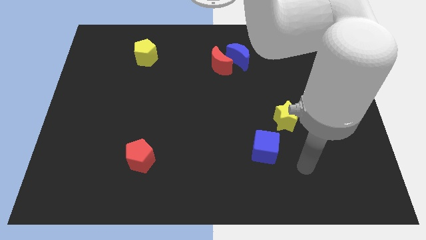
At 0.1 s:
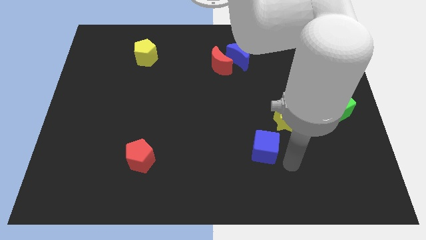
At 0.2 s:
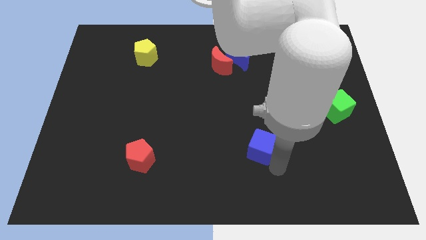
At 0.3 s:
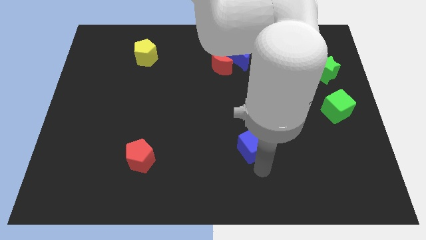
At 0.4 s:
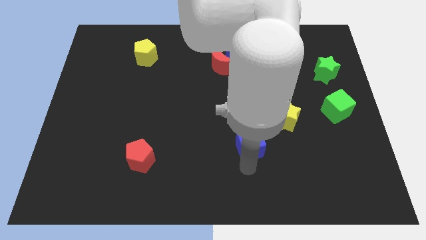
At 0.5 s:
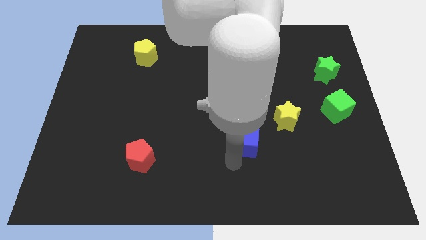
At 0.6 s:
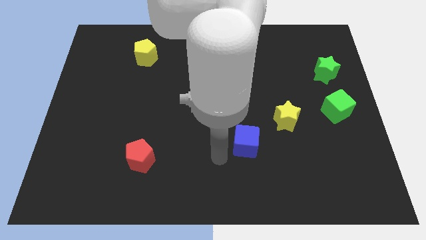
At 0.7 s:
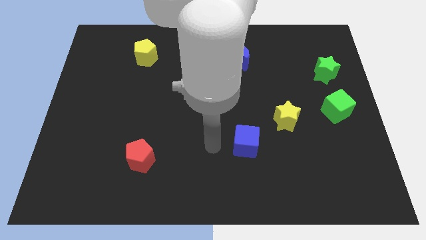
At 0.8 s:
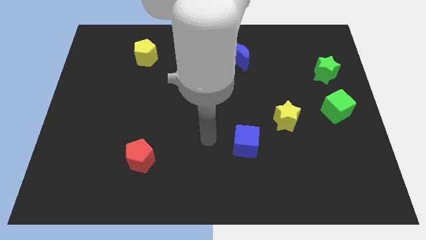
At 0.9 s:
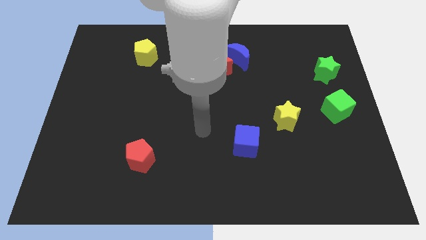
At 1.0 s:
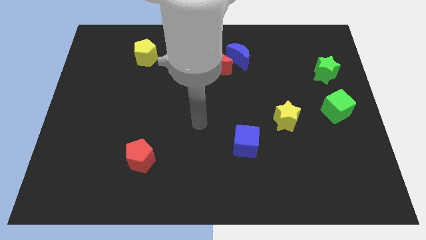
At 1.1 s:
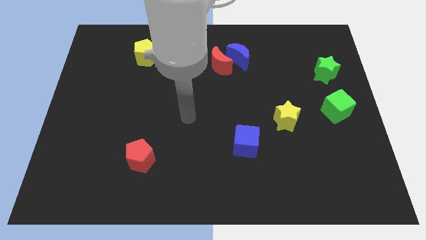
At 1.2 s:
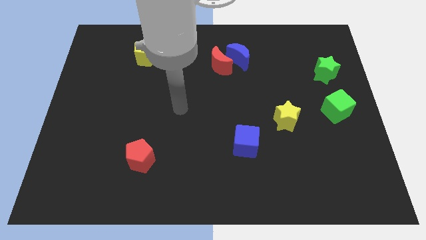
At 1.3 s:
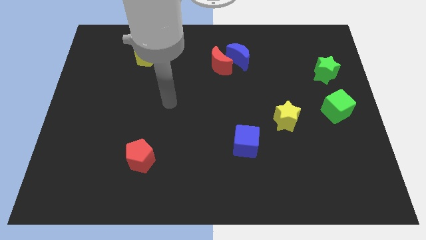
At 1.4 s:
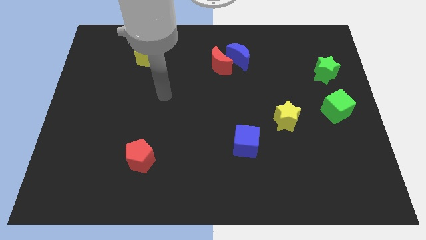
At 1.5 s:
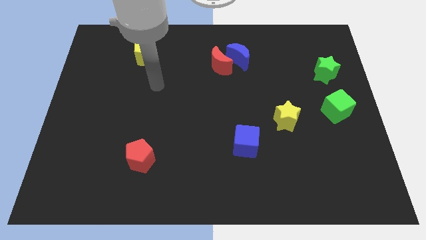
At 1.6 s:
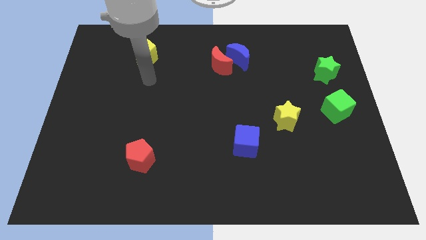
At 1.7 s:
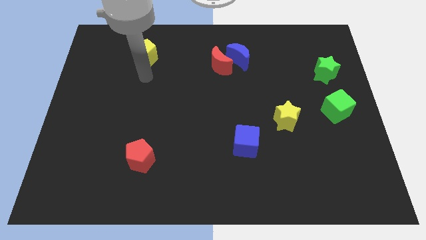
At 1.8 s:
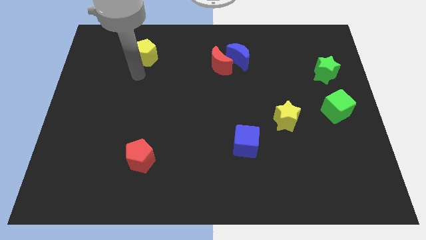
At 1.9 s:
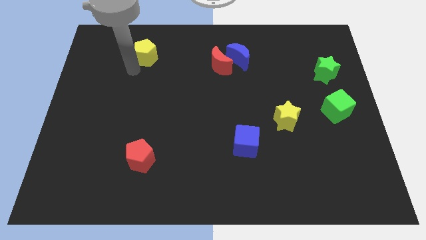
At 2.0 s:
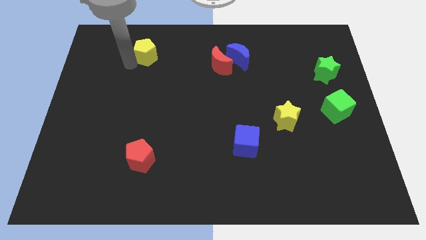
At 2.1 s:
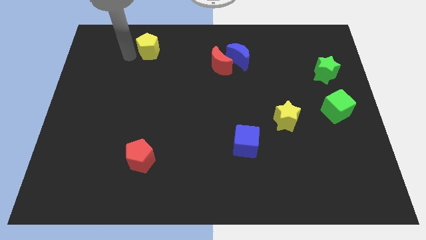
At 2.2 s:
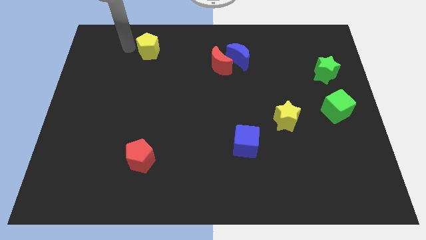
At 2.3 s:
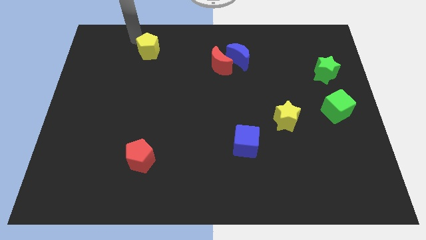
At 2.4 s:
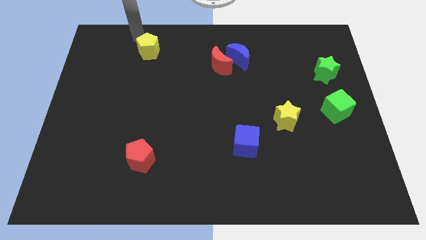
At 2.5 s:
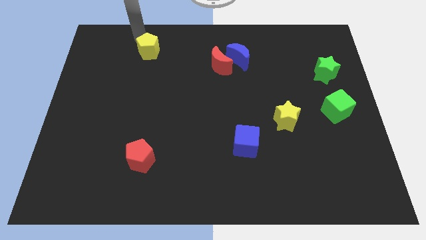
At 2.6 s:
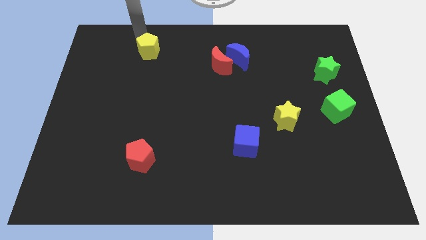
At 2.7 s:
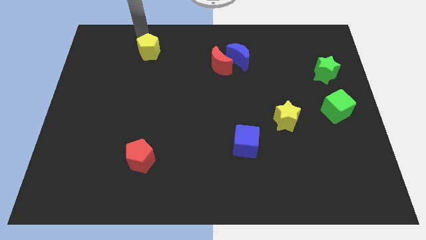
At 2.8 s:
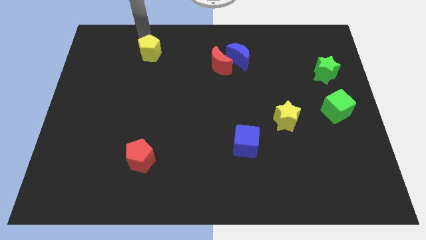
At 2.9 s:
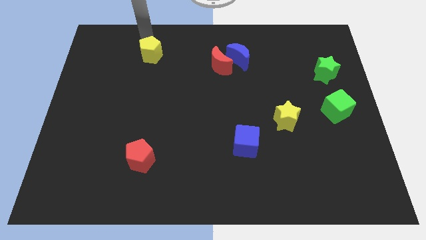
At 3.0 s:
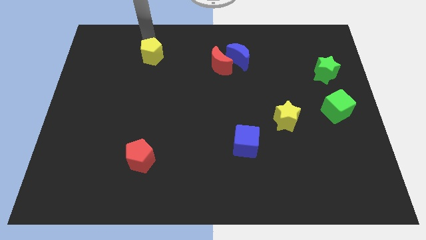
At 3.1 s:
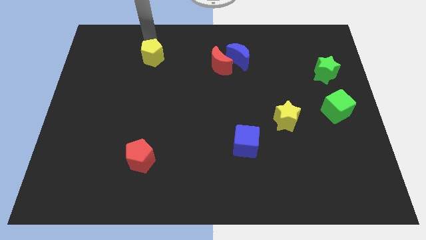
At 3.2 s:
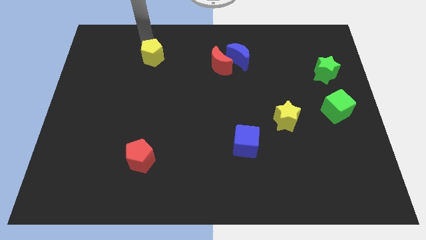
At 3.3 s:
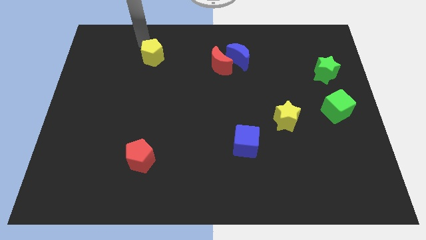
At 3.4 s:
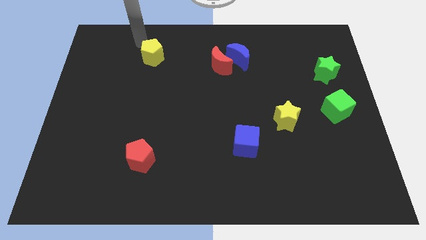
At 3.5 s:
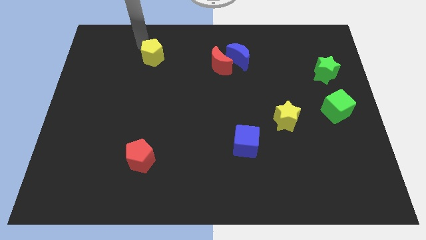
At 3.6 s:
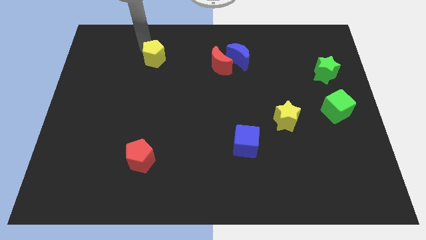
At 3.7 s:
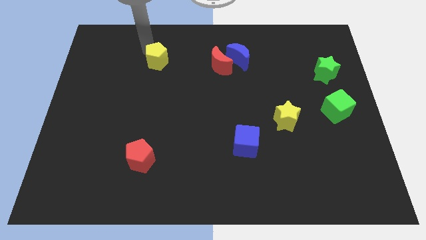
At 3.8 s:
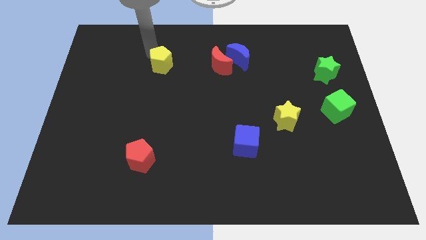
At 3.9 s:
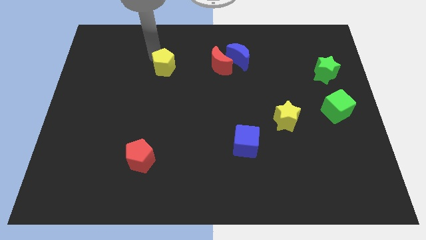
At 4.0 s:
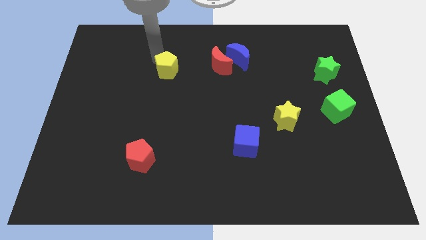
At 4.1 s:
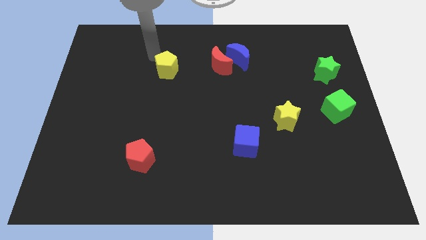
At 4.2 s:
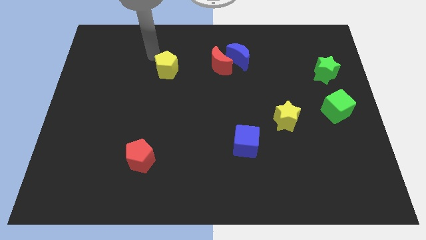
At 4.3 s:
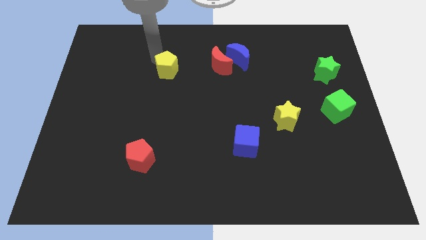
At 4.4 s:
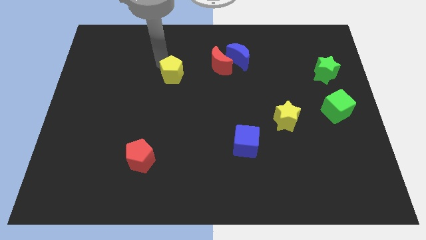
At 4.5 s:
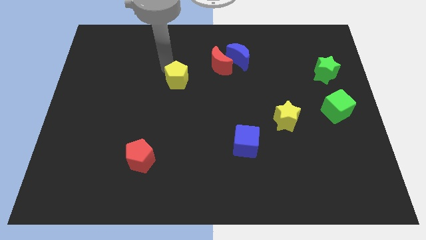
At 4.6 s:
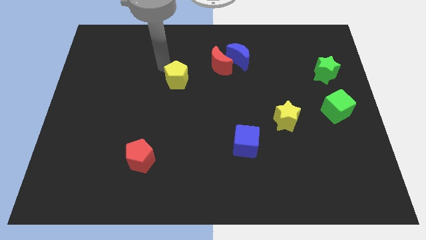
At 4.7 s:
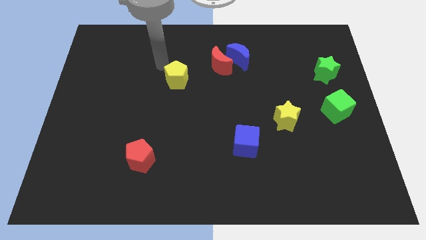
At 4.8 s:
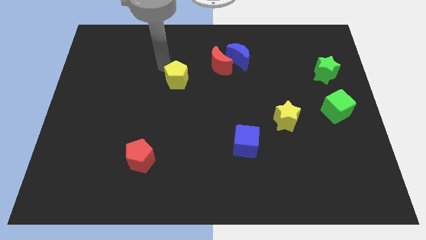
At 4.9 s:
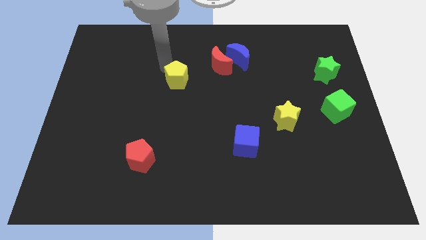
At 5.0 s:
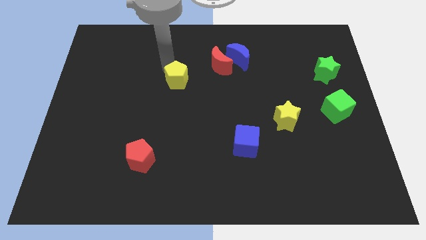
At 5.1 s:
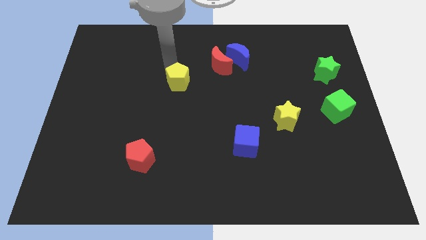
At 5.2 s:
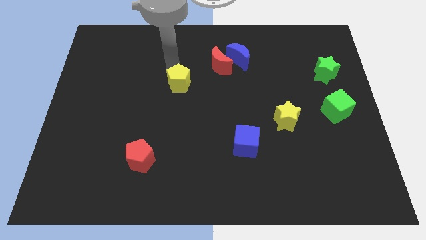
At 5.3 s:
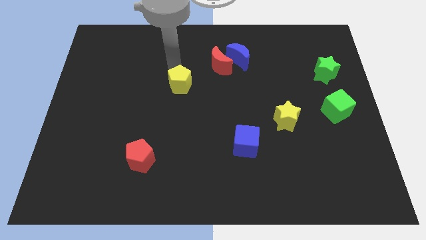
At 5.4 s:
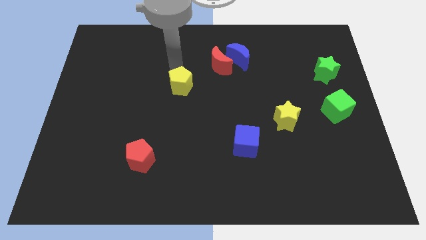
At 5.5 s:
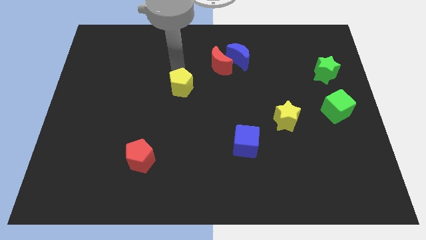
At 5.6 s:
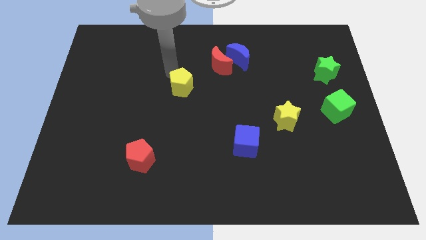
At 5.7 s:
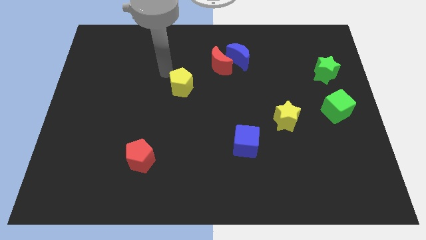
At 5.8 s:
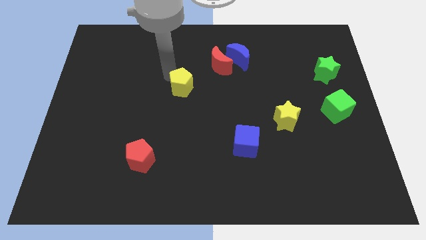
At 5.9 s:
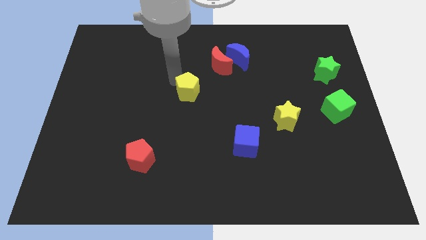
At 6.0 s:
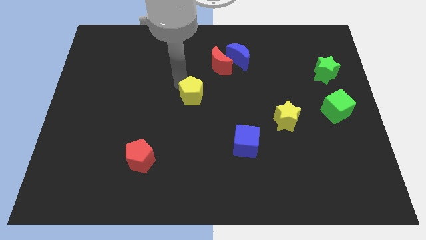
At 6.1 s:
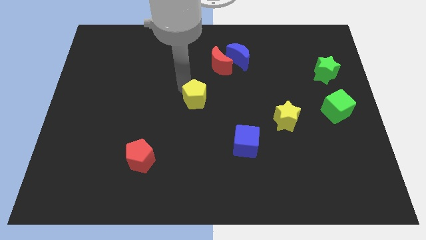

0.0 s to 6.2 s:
move the yellow pentagon diagonally down and to the right

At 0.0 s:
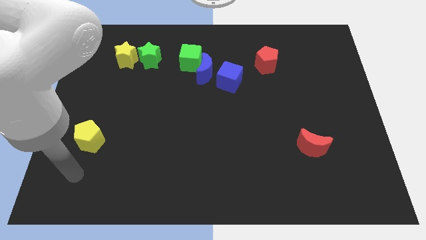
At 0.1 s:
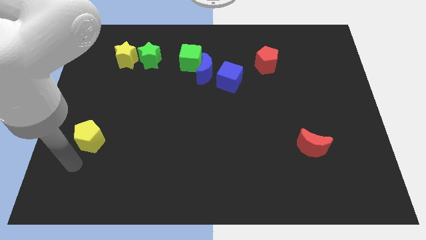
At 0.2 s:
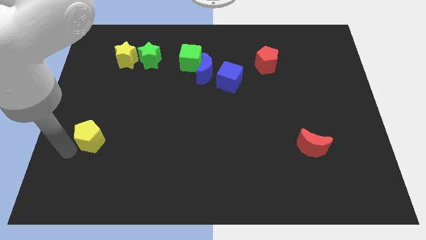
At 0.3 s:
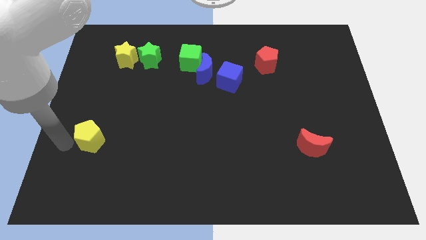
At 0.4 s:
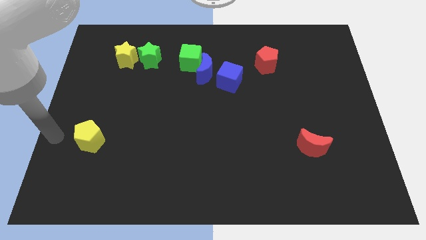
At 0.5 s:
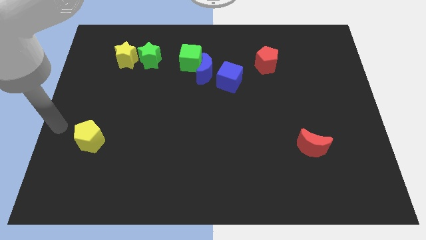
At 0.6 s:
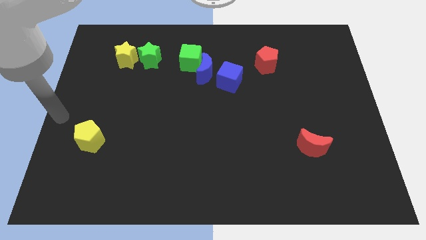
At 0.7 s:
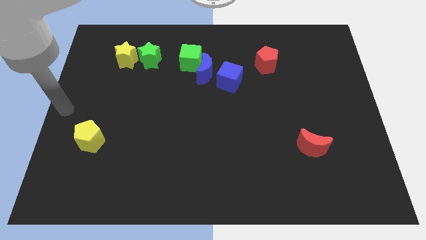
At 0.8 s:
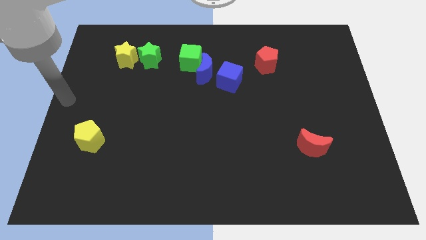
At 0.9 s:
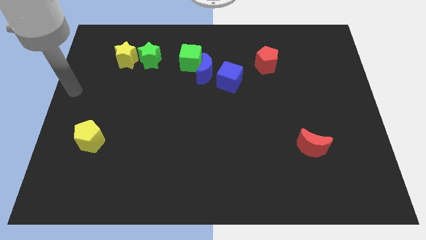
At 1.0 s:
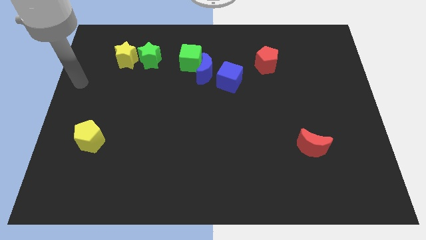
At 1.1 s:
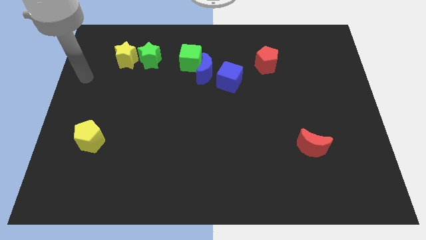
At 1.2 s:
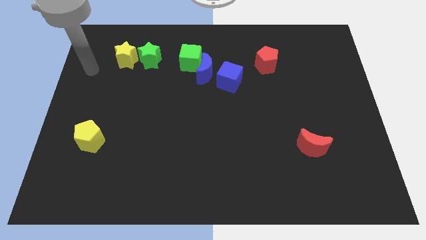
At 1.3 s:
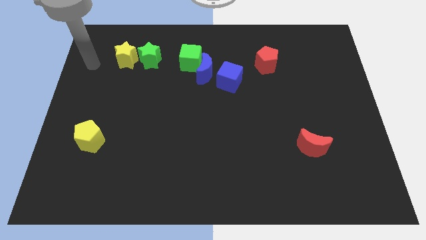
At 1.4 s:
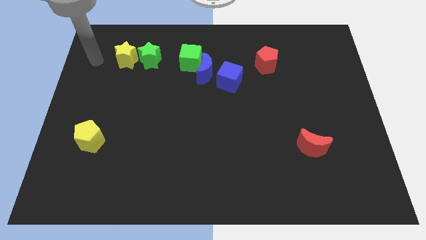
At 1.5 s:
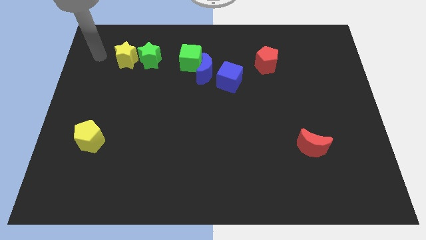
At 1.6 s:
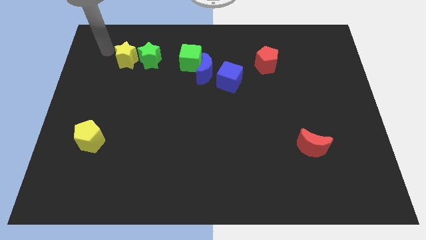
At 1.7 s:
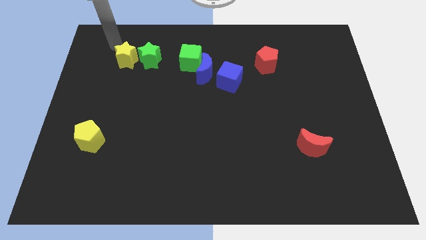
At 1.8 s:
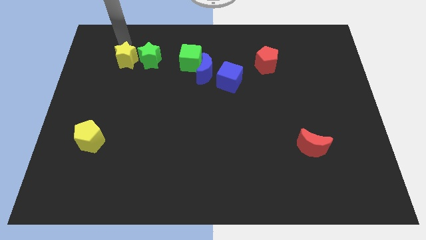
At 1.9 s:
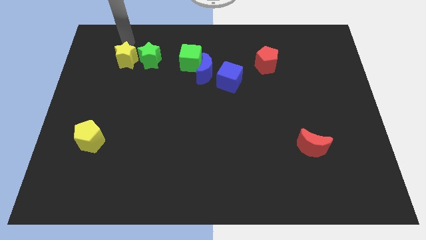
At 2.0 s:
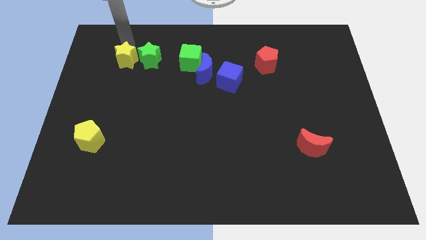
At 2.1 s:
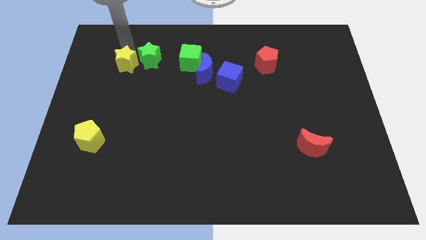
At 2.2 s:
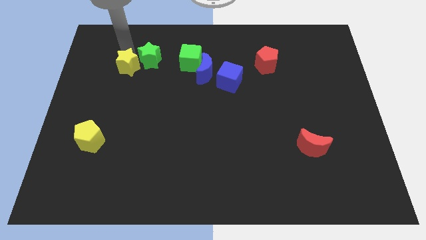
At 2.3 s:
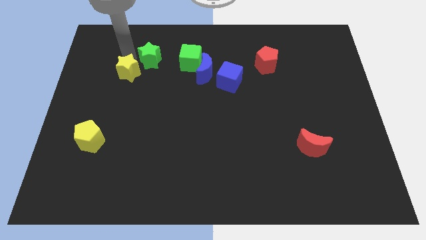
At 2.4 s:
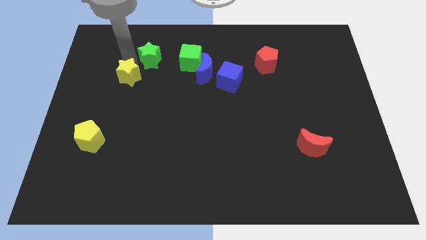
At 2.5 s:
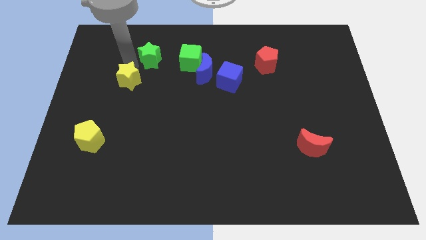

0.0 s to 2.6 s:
move the yellow star slightly down
